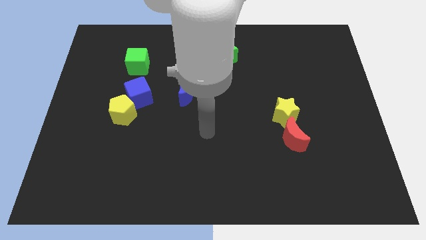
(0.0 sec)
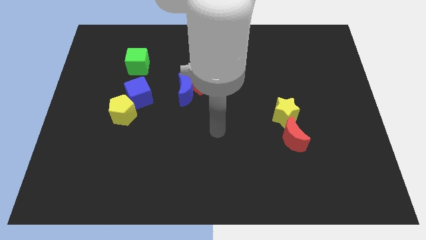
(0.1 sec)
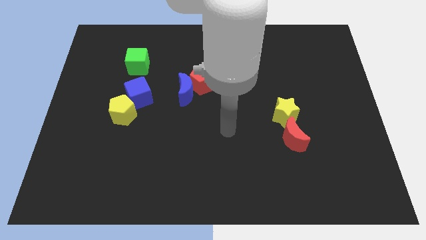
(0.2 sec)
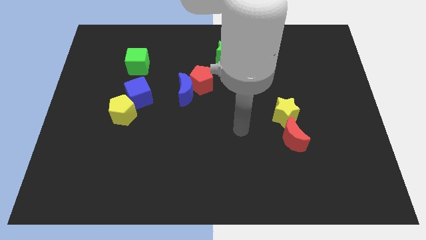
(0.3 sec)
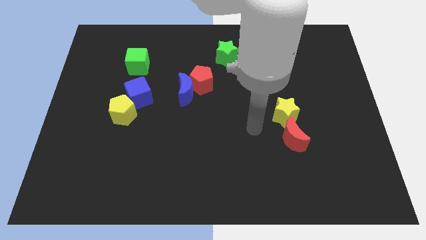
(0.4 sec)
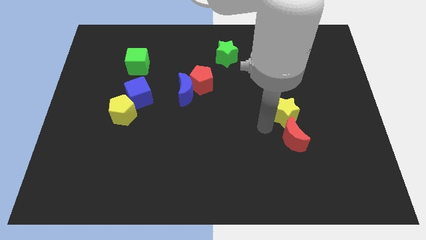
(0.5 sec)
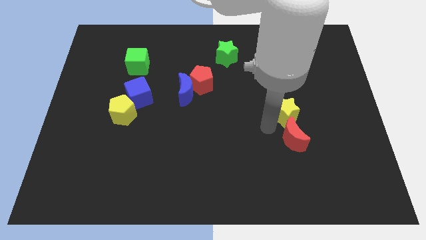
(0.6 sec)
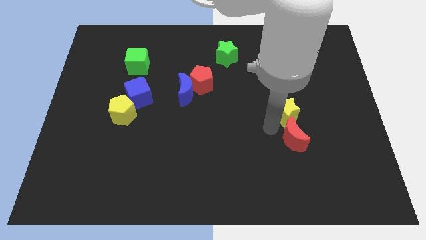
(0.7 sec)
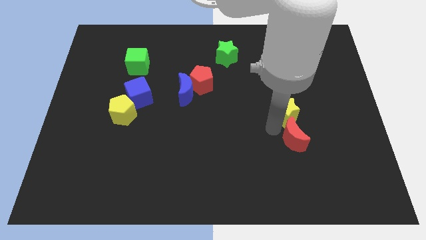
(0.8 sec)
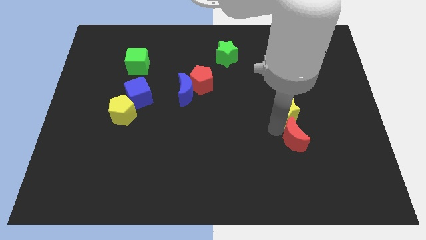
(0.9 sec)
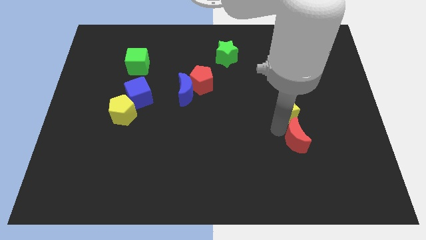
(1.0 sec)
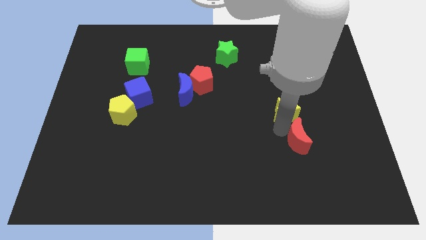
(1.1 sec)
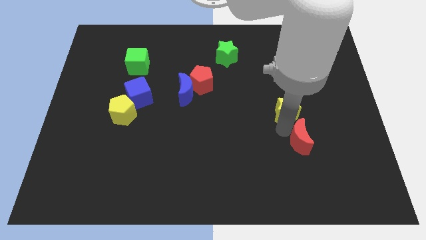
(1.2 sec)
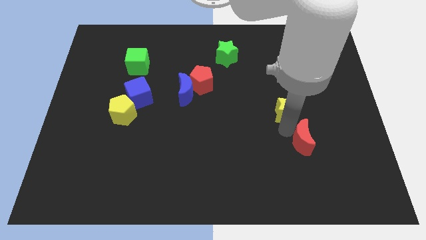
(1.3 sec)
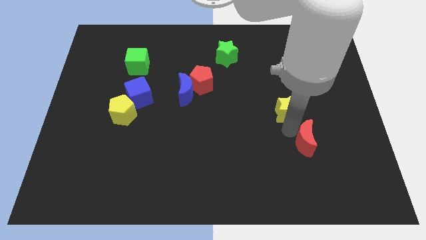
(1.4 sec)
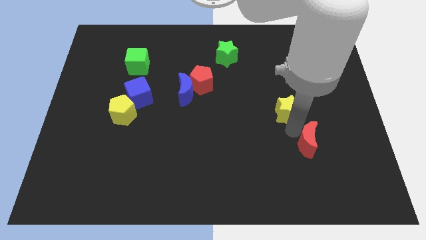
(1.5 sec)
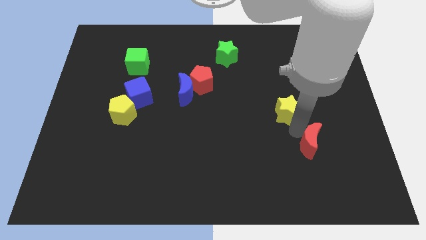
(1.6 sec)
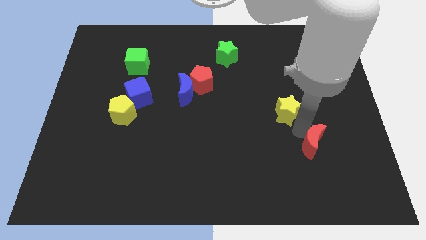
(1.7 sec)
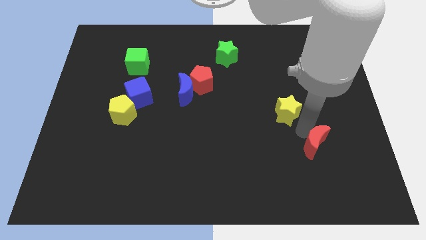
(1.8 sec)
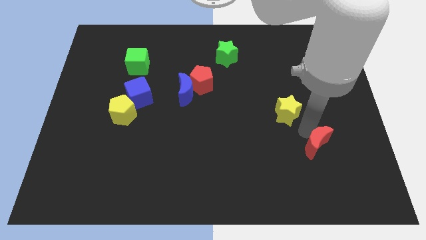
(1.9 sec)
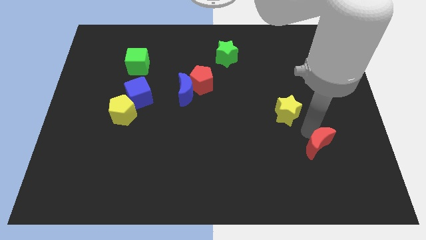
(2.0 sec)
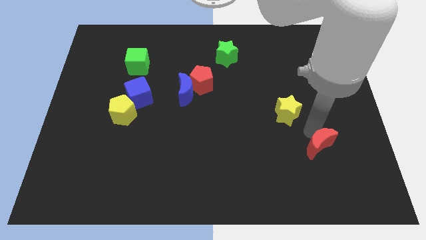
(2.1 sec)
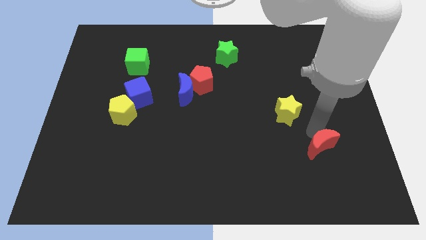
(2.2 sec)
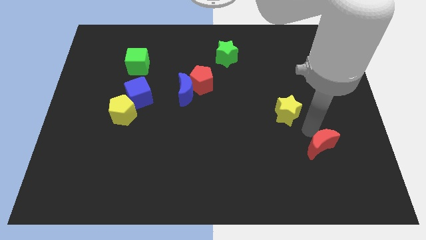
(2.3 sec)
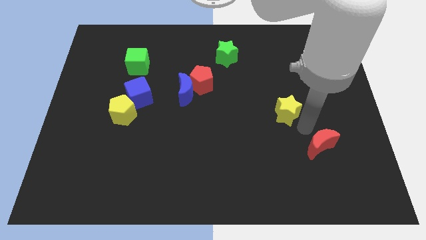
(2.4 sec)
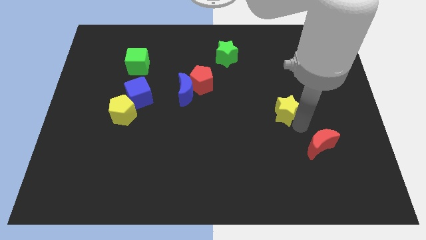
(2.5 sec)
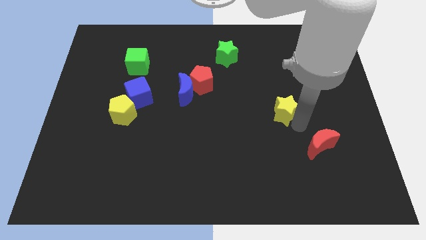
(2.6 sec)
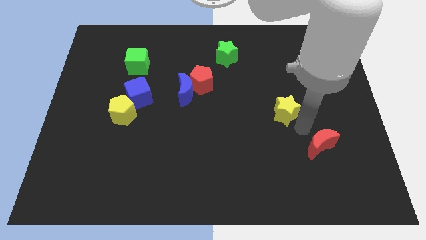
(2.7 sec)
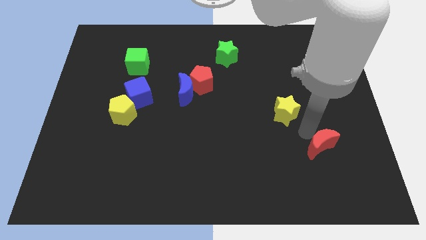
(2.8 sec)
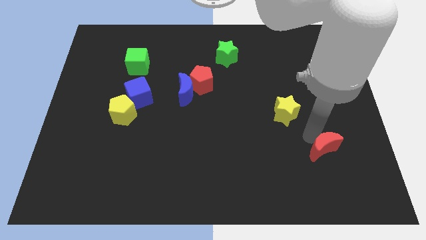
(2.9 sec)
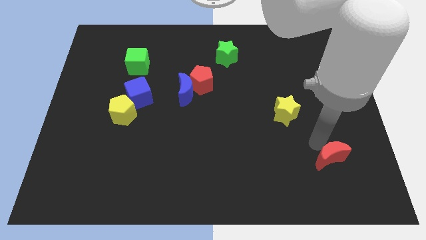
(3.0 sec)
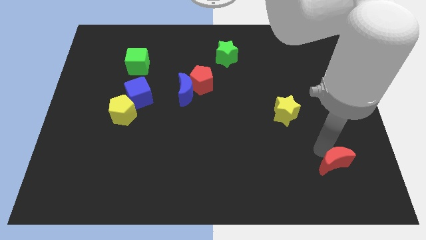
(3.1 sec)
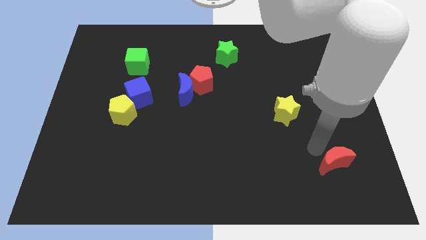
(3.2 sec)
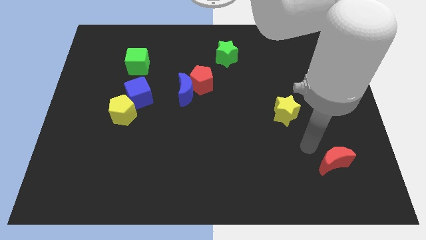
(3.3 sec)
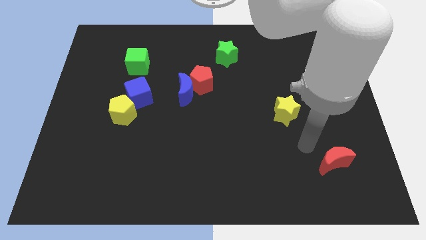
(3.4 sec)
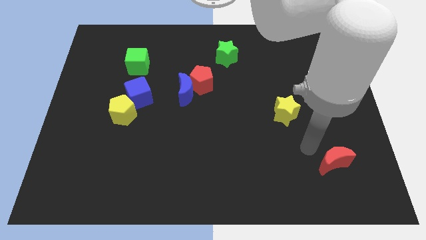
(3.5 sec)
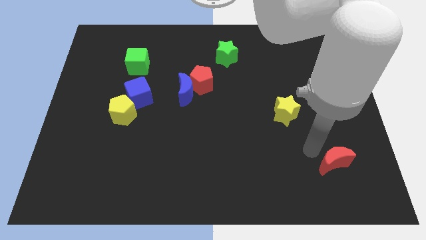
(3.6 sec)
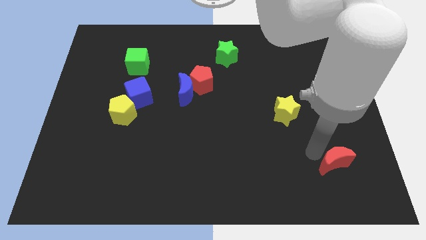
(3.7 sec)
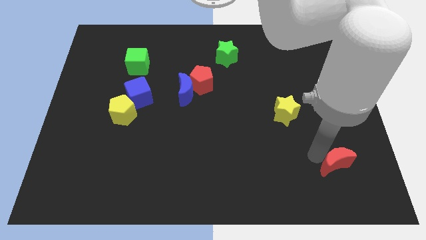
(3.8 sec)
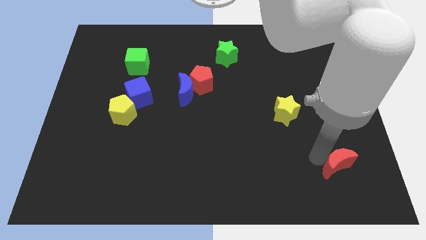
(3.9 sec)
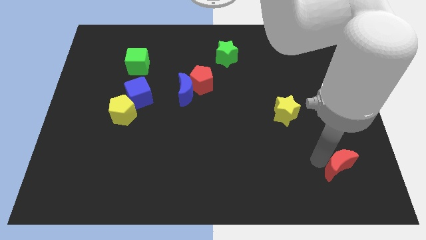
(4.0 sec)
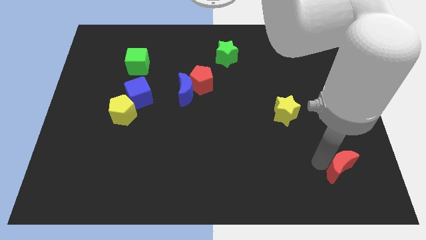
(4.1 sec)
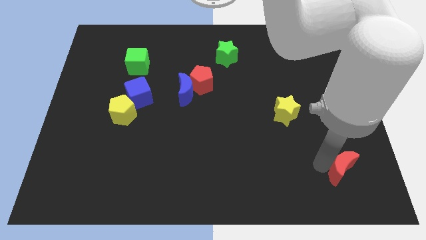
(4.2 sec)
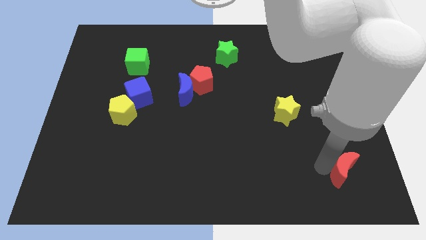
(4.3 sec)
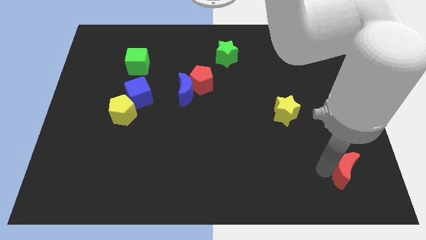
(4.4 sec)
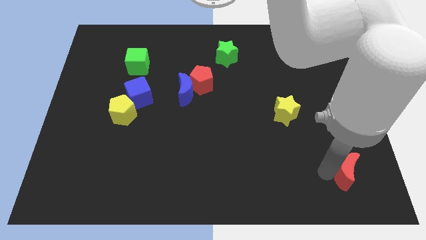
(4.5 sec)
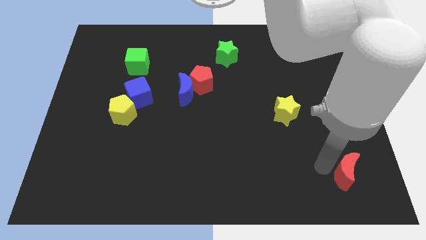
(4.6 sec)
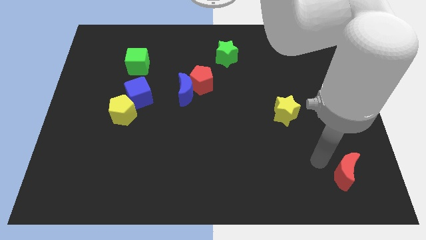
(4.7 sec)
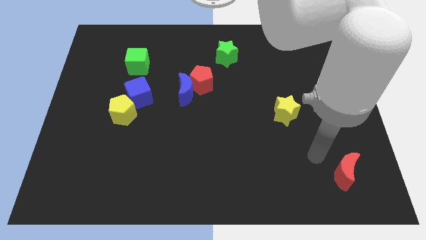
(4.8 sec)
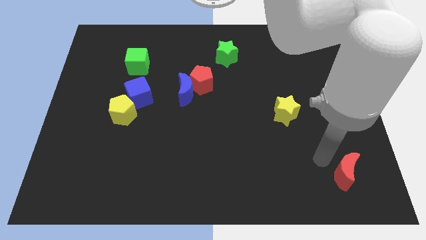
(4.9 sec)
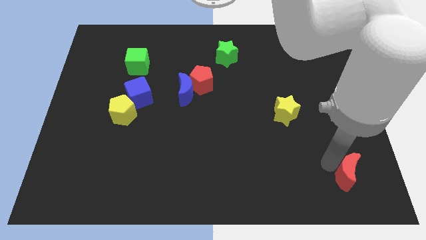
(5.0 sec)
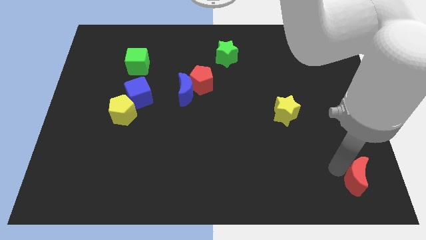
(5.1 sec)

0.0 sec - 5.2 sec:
put the red moon to the bottom right of the board

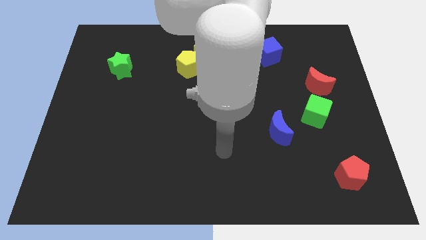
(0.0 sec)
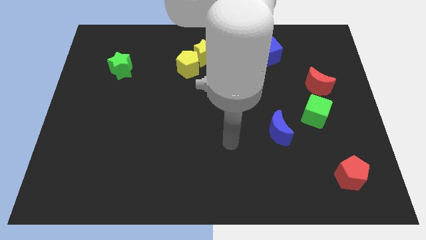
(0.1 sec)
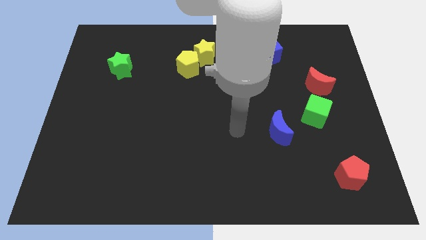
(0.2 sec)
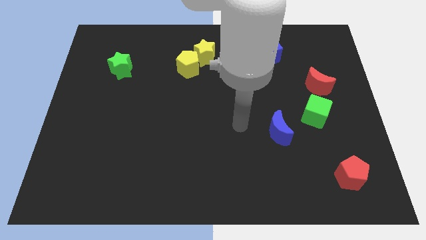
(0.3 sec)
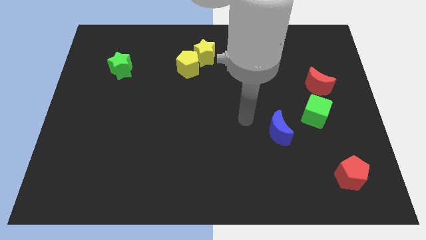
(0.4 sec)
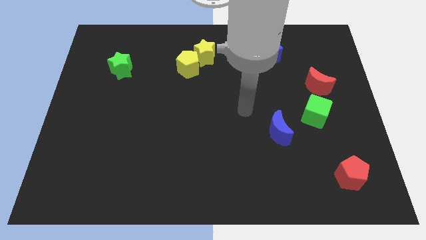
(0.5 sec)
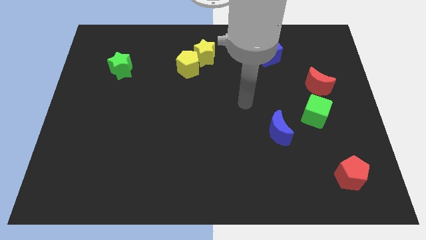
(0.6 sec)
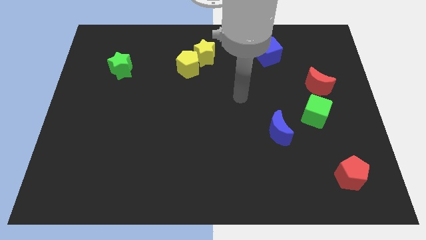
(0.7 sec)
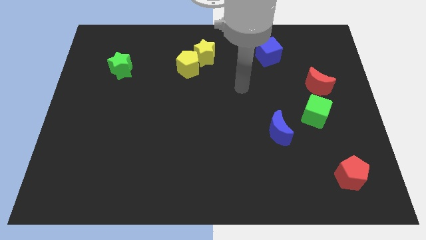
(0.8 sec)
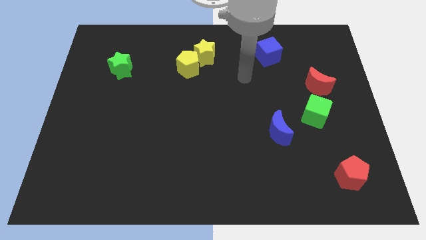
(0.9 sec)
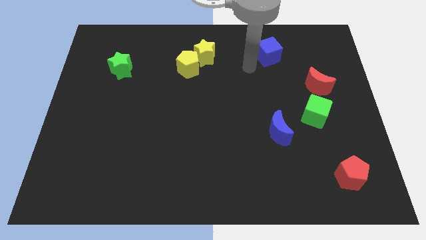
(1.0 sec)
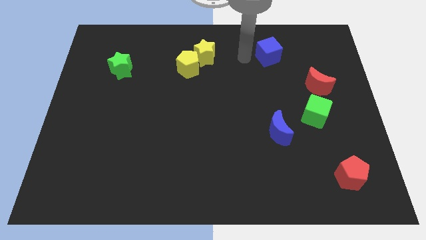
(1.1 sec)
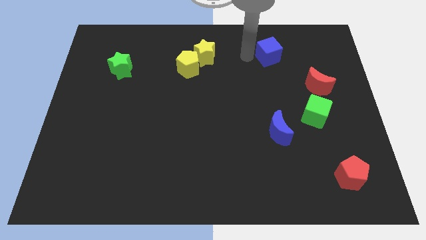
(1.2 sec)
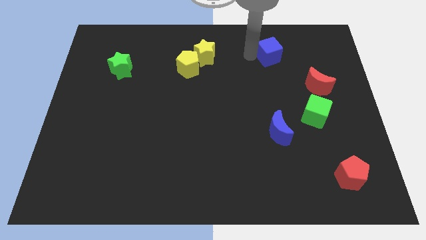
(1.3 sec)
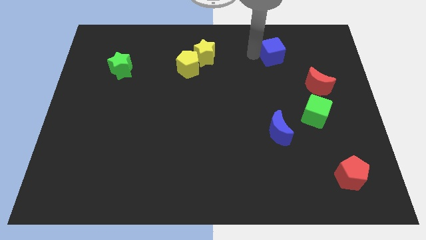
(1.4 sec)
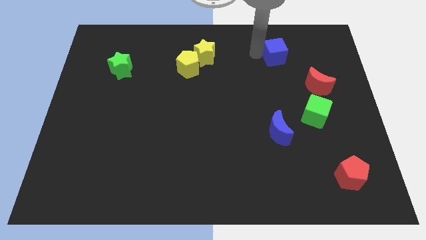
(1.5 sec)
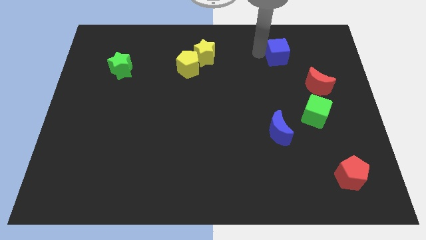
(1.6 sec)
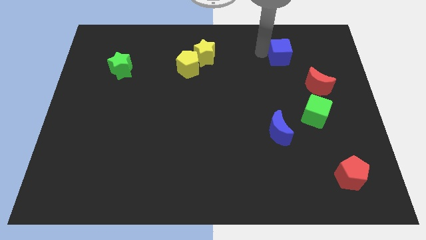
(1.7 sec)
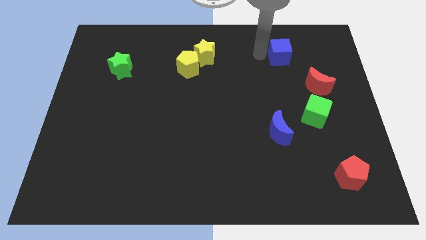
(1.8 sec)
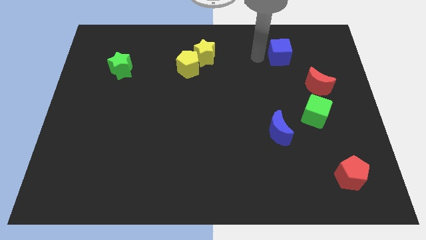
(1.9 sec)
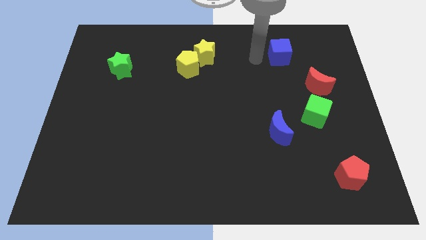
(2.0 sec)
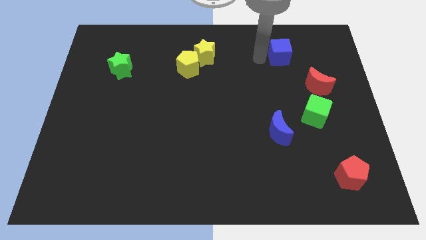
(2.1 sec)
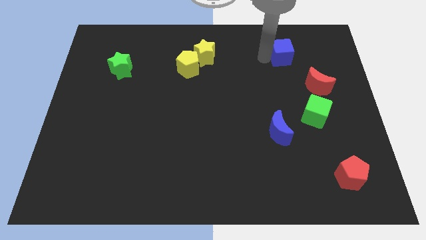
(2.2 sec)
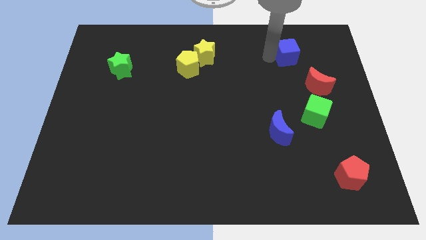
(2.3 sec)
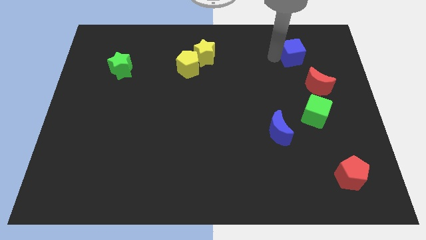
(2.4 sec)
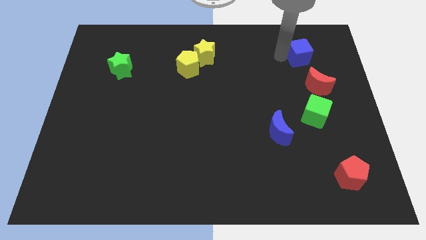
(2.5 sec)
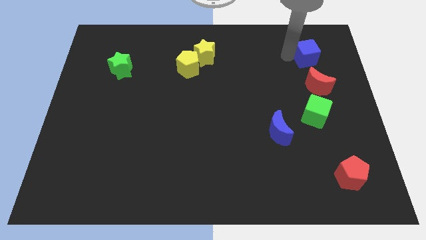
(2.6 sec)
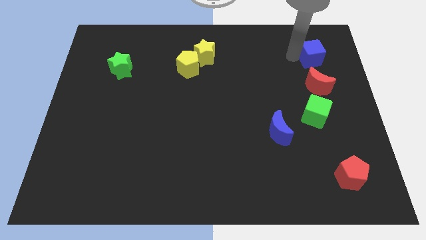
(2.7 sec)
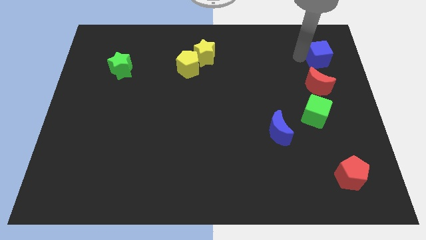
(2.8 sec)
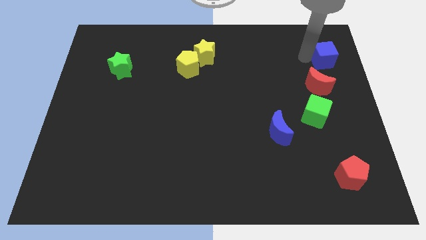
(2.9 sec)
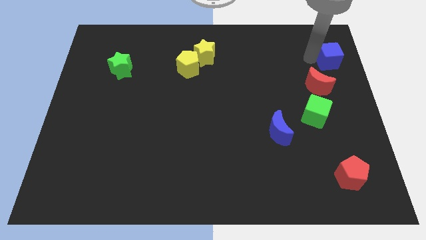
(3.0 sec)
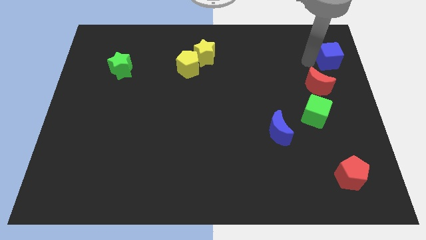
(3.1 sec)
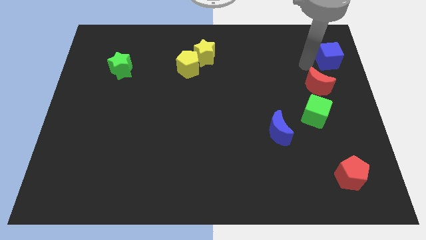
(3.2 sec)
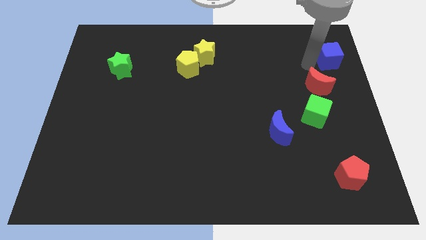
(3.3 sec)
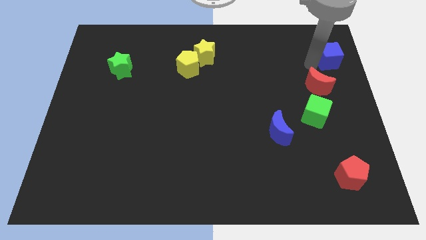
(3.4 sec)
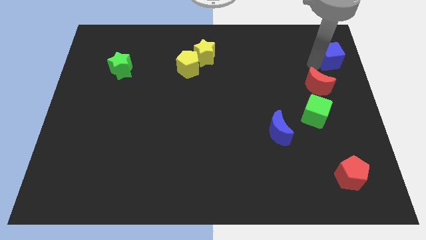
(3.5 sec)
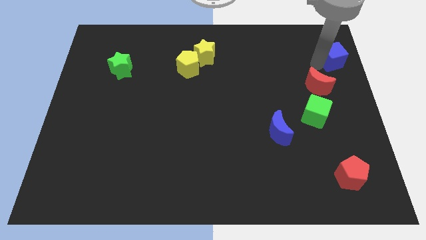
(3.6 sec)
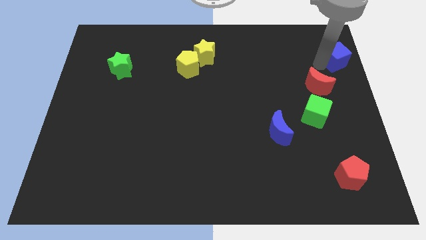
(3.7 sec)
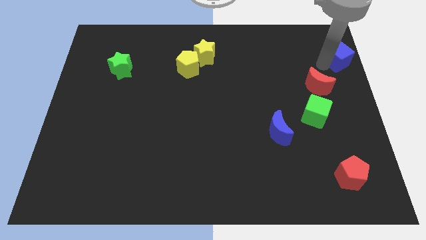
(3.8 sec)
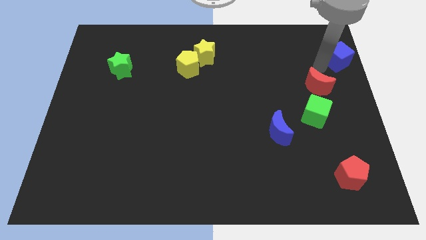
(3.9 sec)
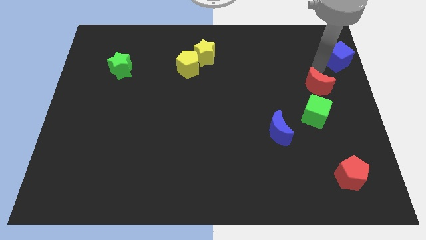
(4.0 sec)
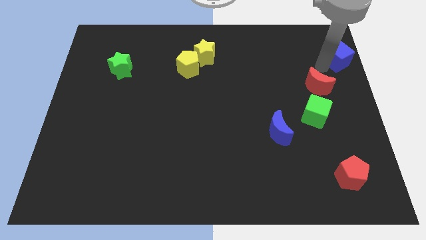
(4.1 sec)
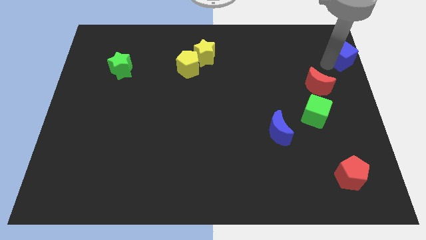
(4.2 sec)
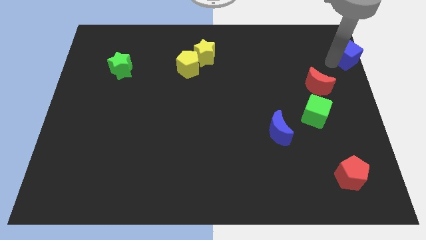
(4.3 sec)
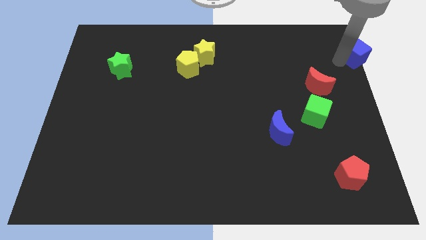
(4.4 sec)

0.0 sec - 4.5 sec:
push the blue cube to the top right corner
